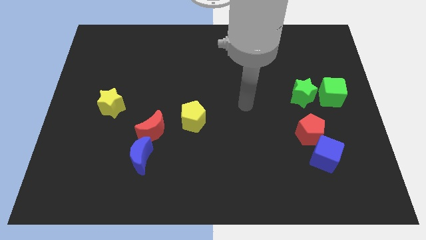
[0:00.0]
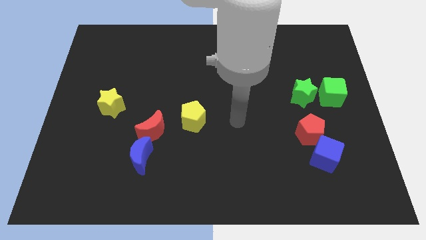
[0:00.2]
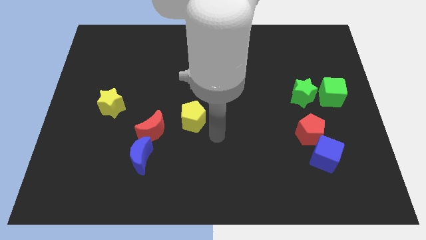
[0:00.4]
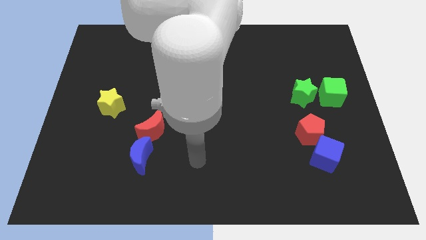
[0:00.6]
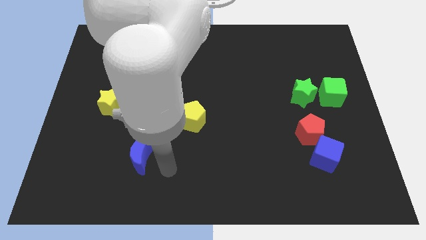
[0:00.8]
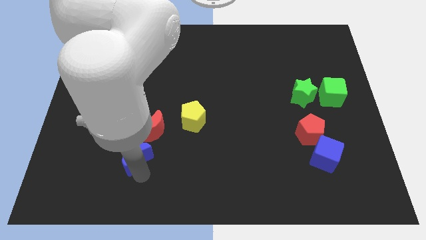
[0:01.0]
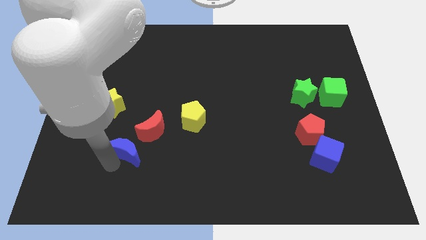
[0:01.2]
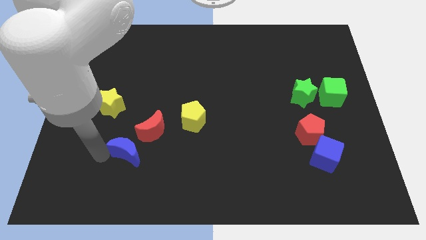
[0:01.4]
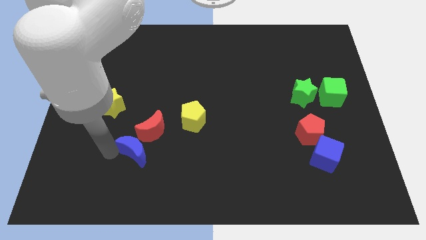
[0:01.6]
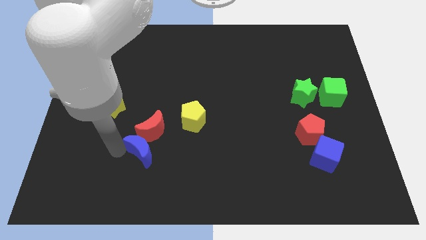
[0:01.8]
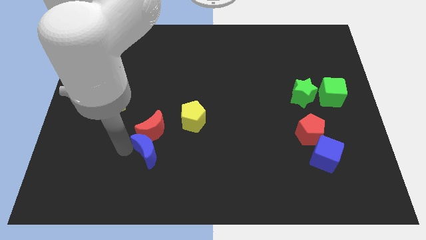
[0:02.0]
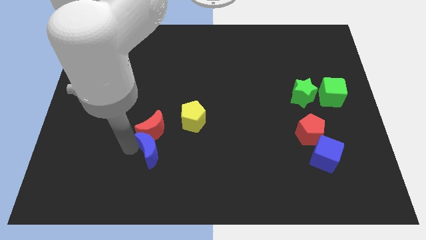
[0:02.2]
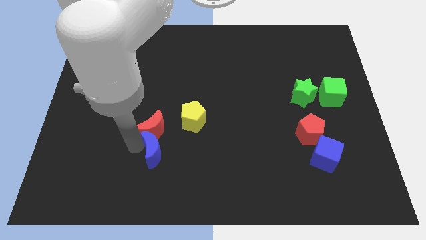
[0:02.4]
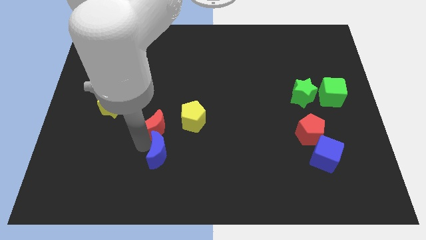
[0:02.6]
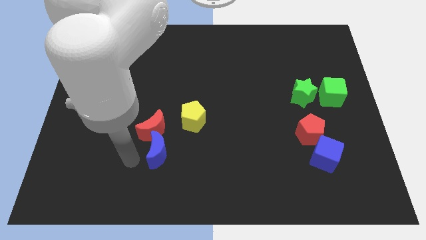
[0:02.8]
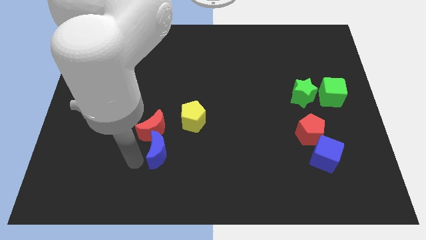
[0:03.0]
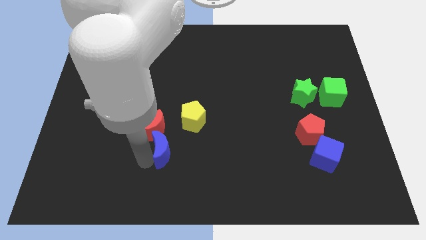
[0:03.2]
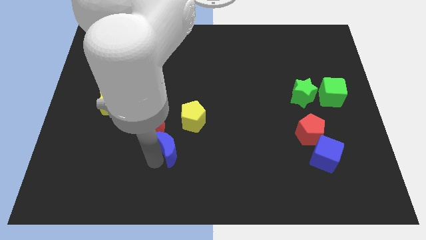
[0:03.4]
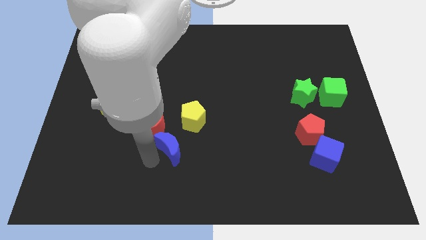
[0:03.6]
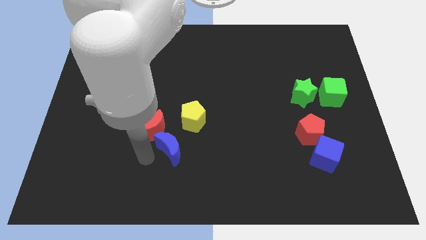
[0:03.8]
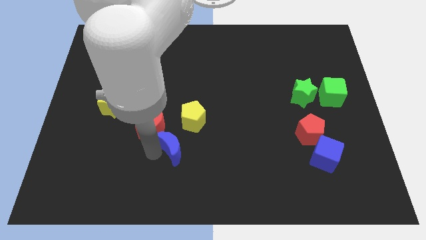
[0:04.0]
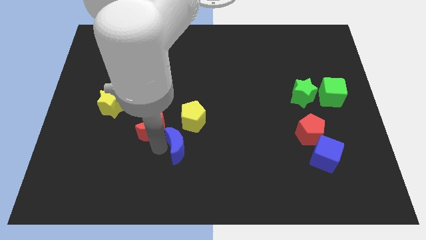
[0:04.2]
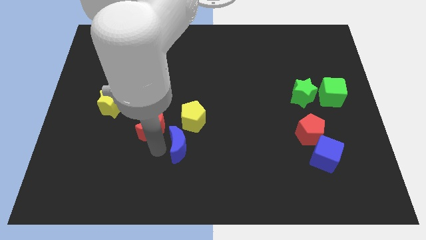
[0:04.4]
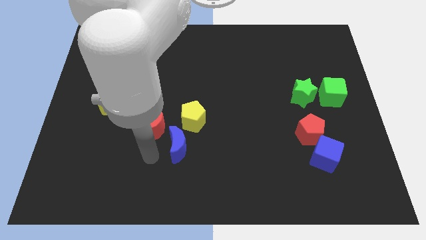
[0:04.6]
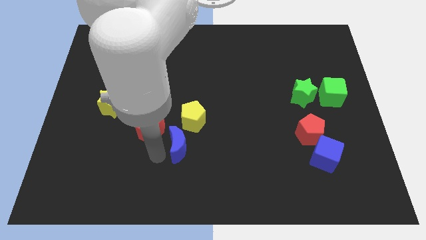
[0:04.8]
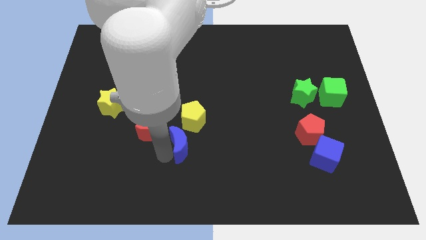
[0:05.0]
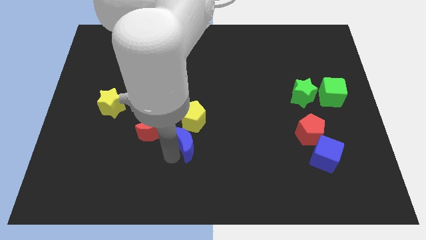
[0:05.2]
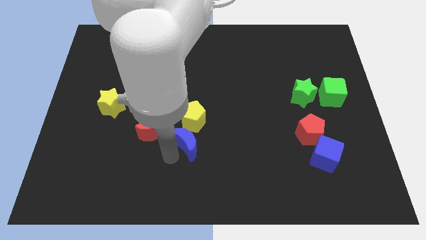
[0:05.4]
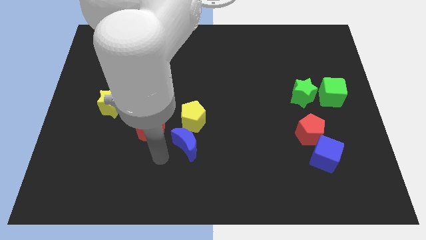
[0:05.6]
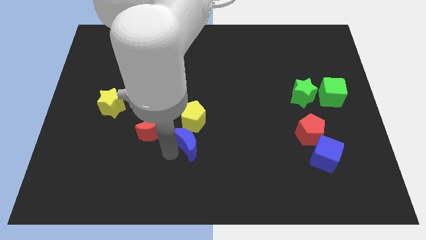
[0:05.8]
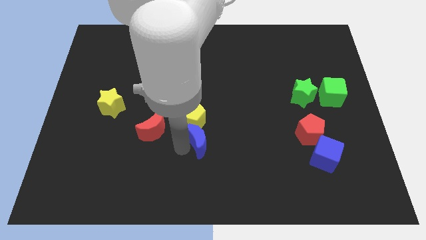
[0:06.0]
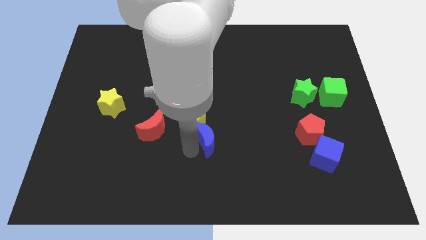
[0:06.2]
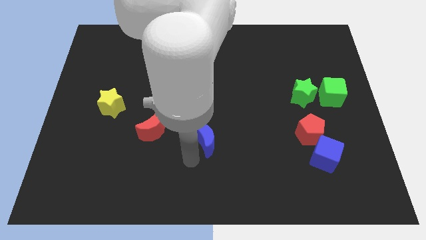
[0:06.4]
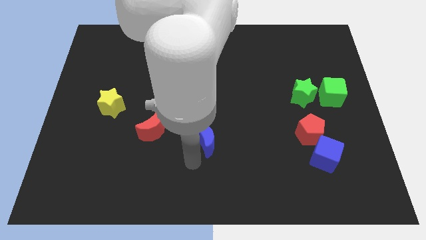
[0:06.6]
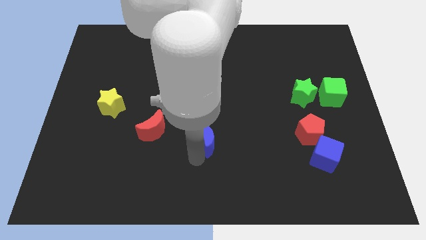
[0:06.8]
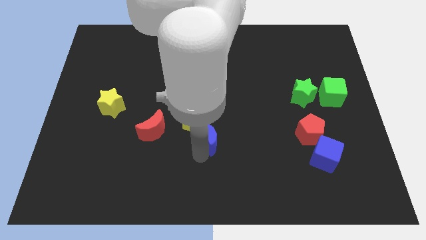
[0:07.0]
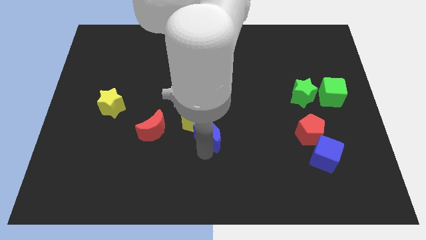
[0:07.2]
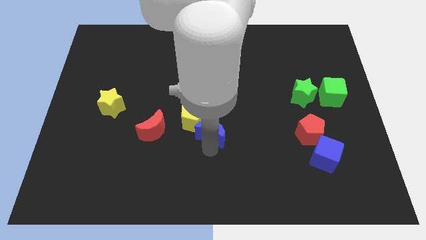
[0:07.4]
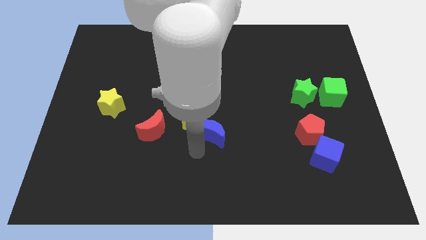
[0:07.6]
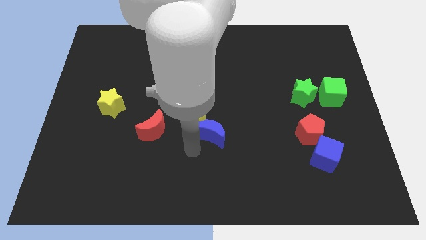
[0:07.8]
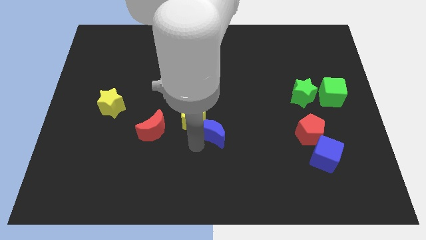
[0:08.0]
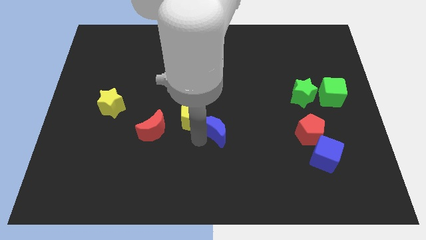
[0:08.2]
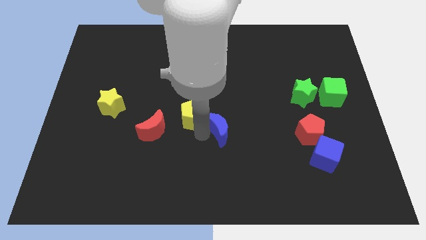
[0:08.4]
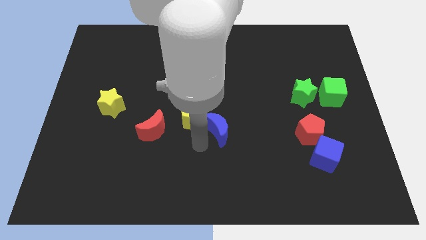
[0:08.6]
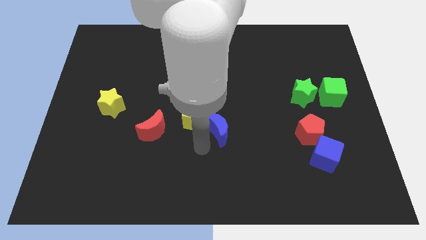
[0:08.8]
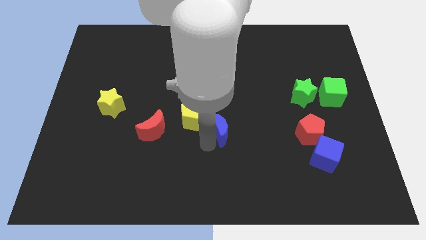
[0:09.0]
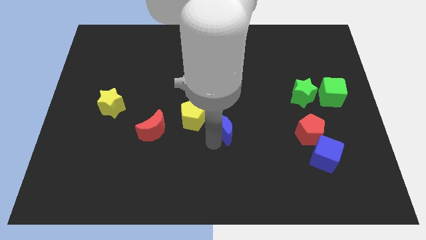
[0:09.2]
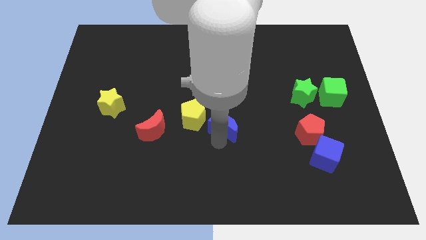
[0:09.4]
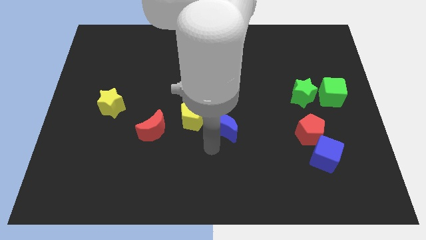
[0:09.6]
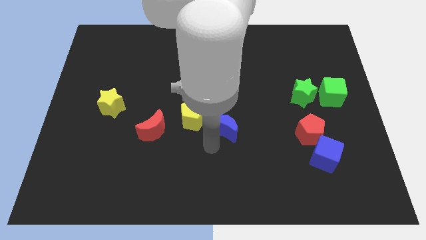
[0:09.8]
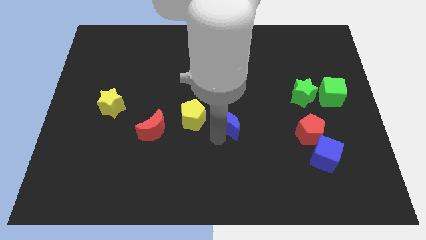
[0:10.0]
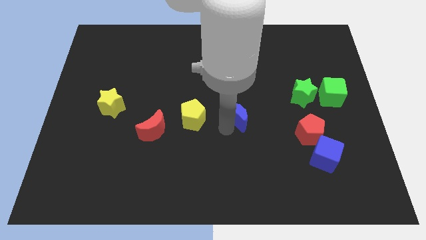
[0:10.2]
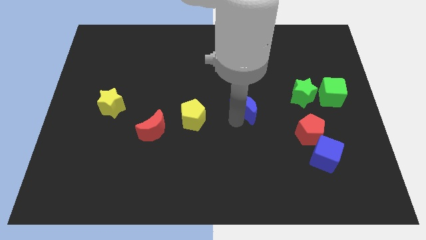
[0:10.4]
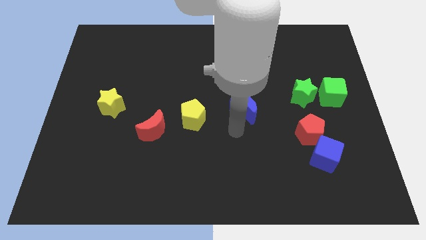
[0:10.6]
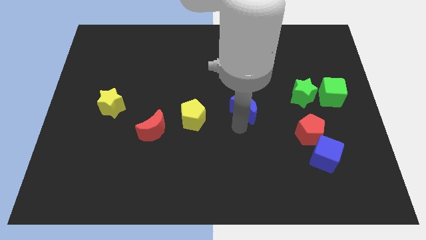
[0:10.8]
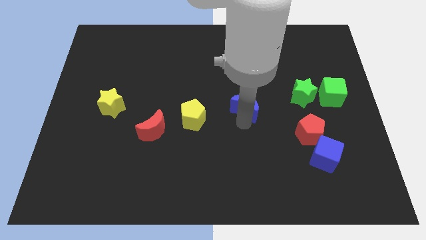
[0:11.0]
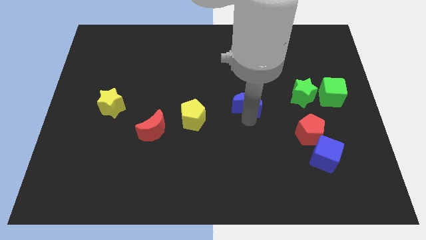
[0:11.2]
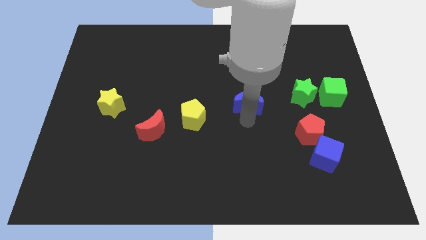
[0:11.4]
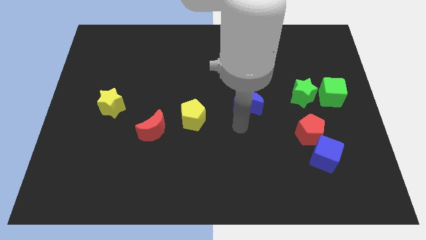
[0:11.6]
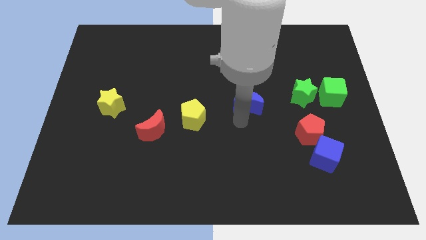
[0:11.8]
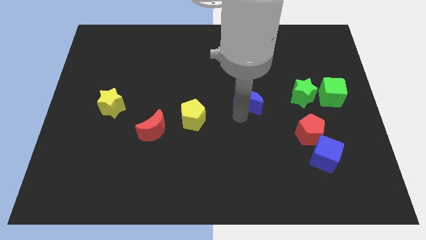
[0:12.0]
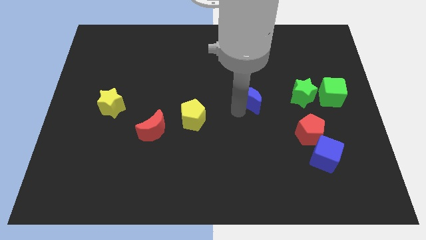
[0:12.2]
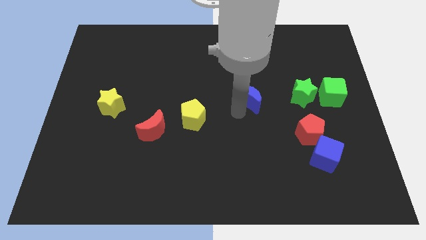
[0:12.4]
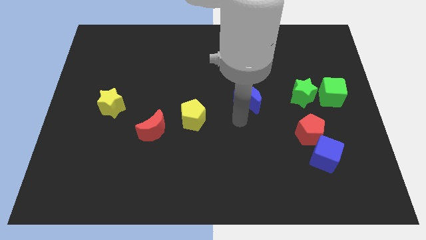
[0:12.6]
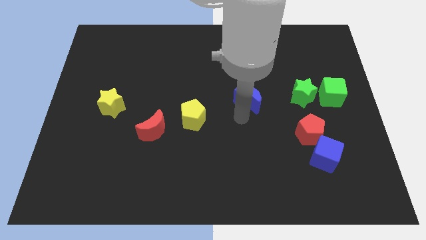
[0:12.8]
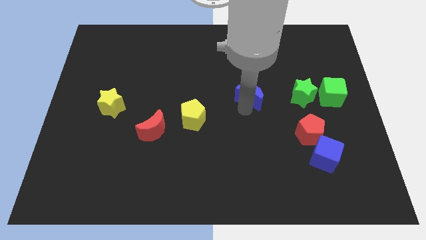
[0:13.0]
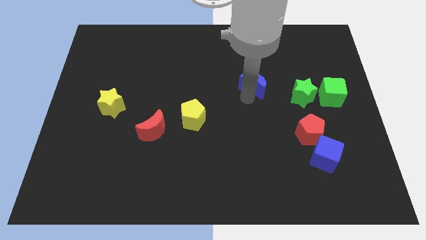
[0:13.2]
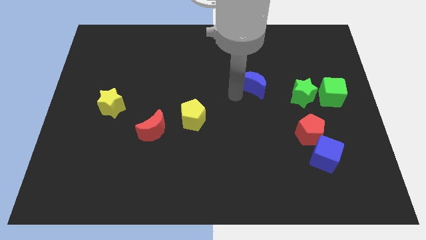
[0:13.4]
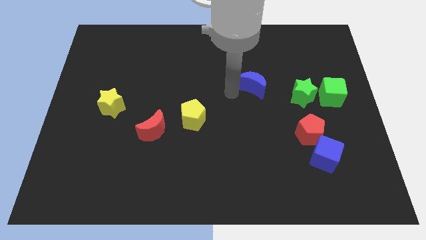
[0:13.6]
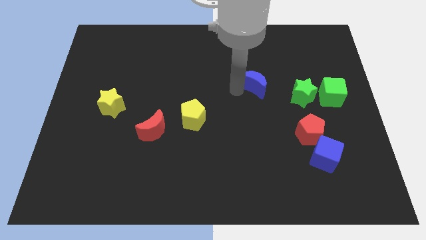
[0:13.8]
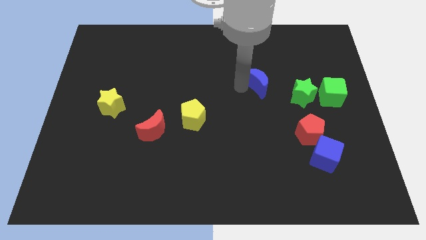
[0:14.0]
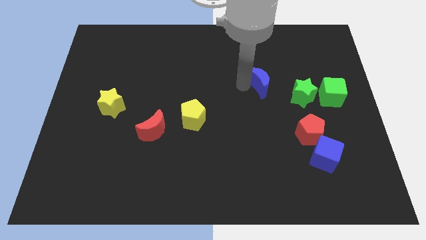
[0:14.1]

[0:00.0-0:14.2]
slide the blue moon diagonally up and to the left of the green star

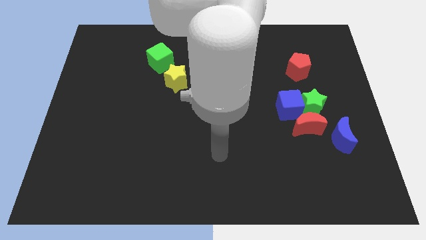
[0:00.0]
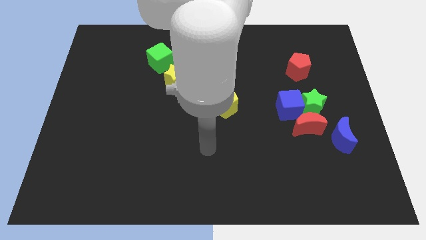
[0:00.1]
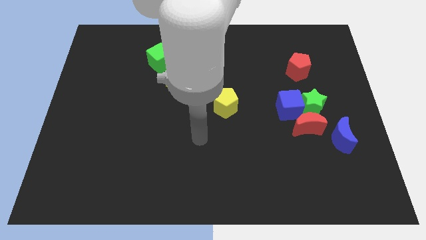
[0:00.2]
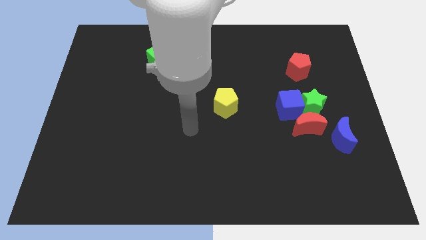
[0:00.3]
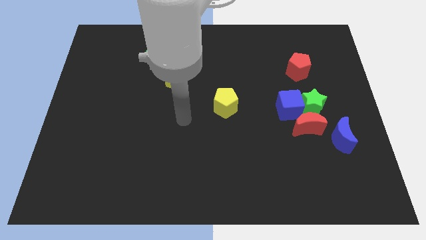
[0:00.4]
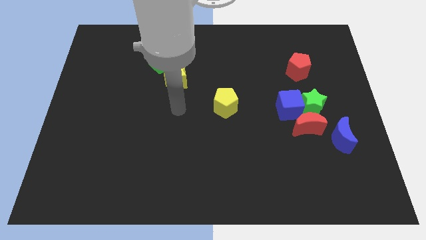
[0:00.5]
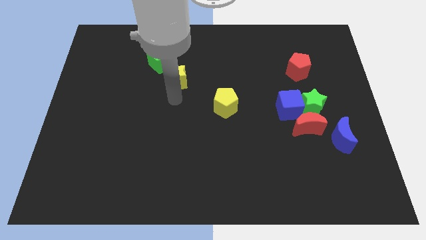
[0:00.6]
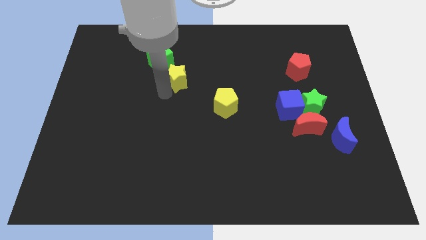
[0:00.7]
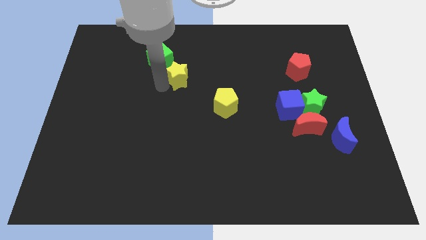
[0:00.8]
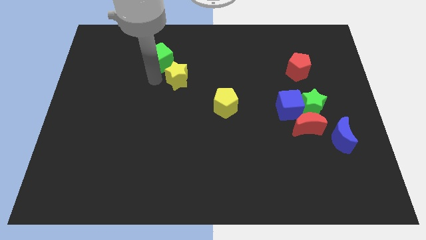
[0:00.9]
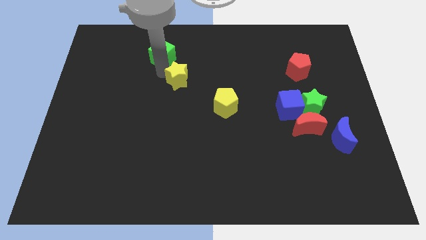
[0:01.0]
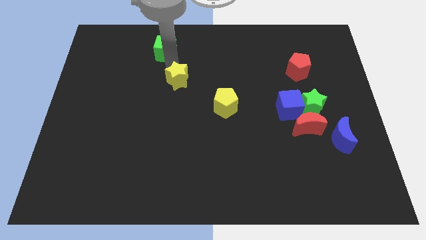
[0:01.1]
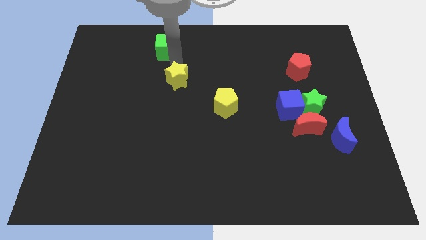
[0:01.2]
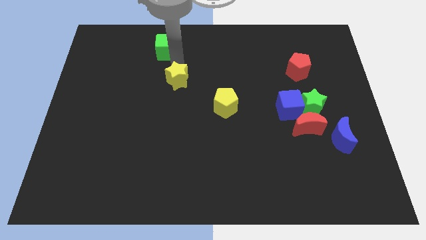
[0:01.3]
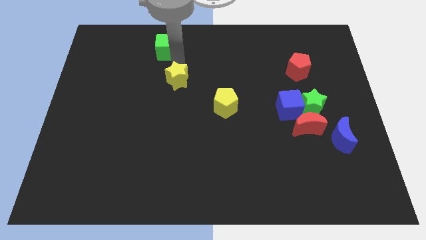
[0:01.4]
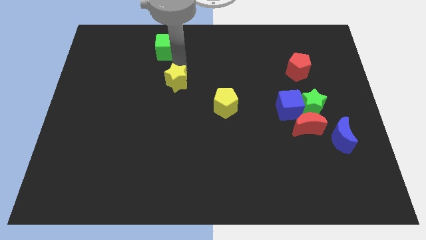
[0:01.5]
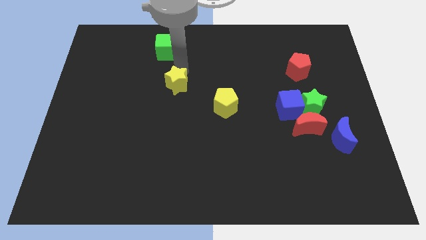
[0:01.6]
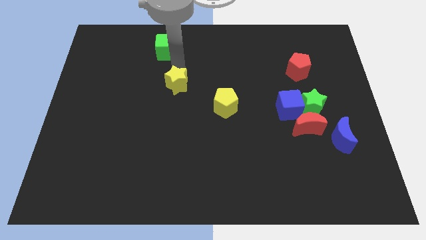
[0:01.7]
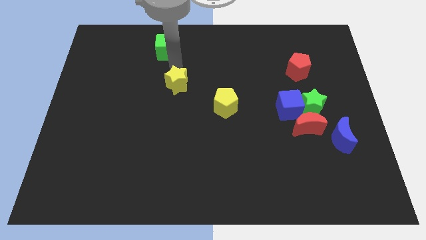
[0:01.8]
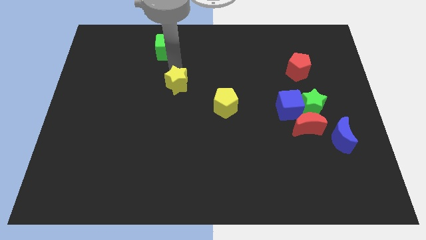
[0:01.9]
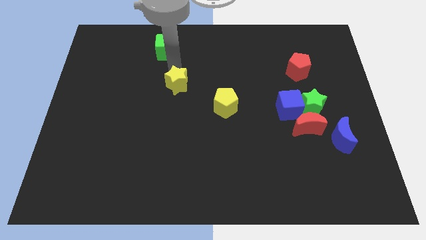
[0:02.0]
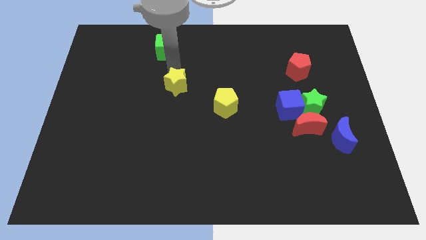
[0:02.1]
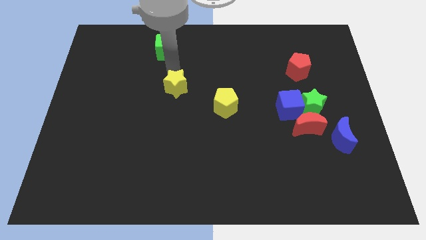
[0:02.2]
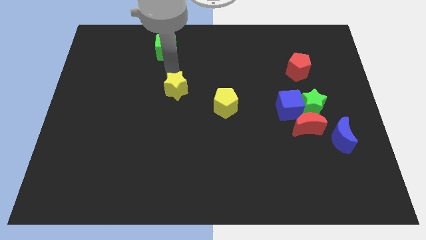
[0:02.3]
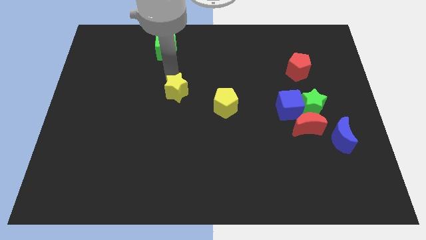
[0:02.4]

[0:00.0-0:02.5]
push the yellow star to the left side of the yellow pentagon
